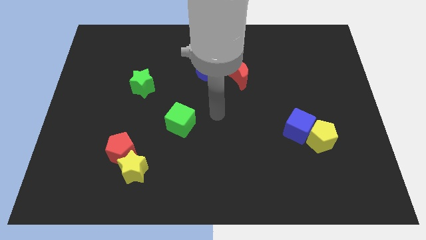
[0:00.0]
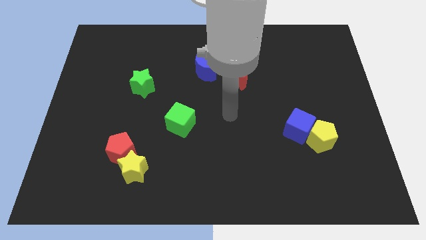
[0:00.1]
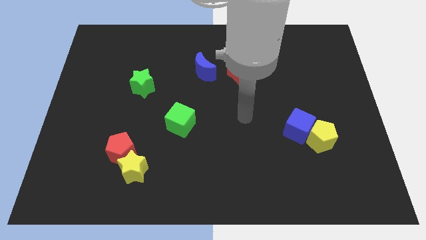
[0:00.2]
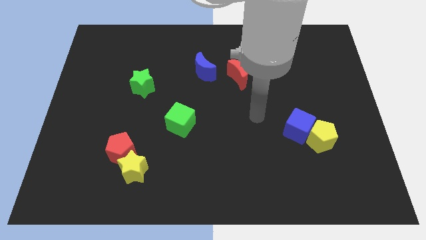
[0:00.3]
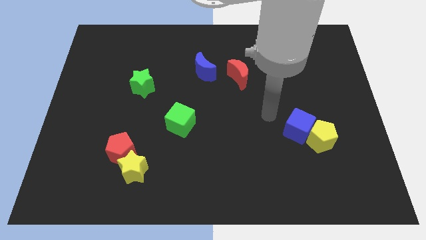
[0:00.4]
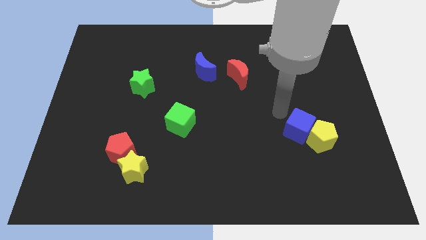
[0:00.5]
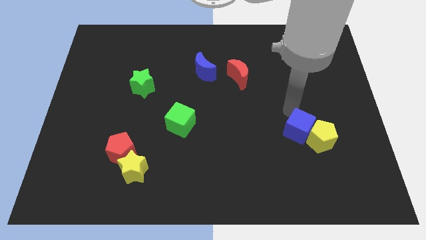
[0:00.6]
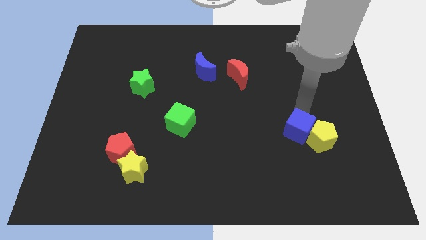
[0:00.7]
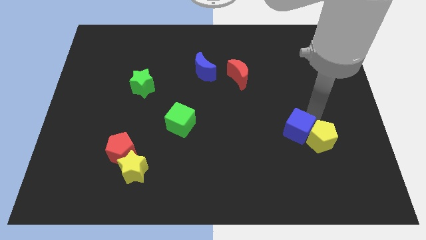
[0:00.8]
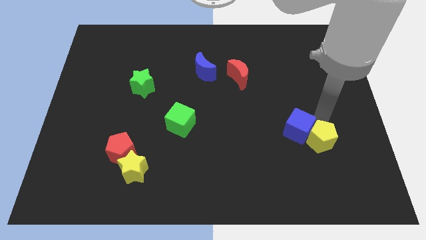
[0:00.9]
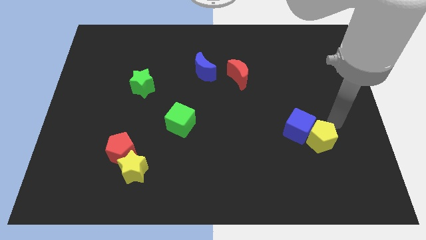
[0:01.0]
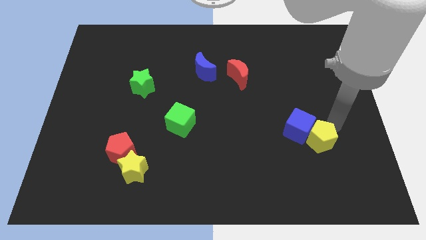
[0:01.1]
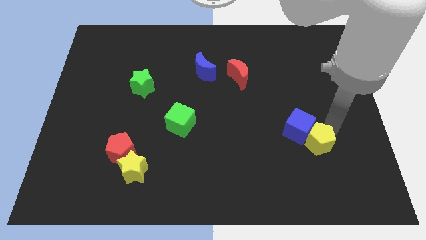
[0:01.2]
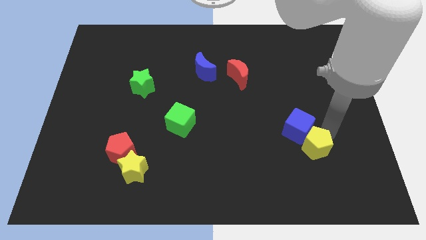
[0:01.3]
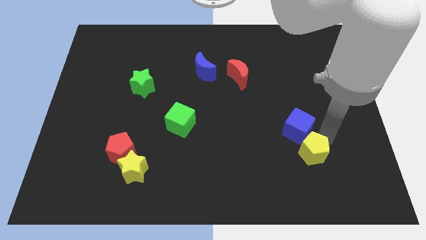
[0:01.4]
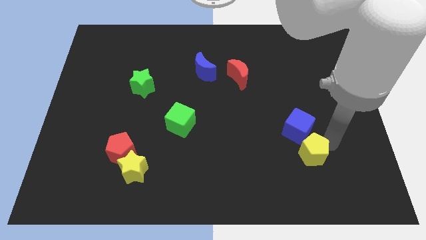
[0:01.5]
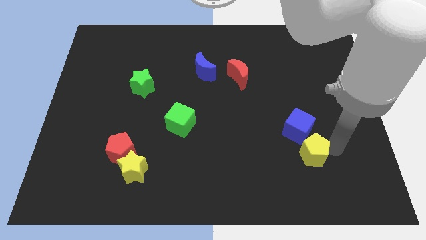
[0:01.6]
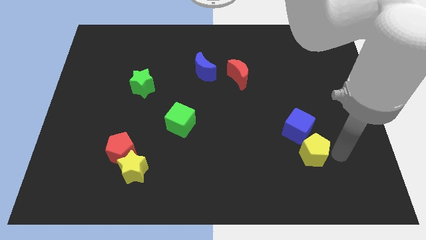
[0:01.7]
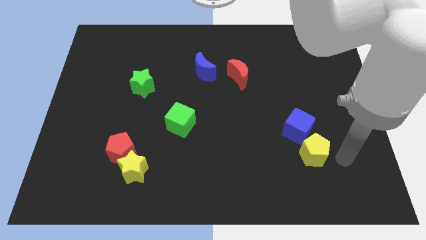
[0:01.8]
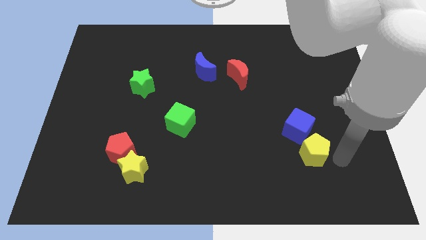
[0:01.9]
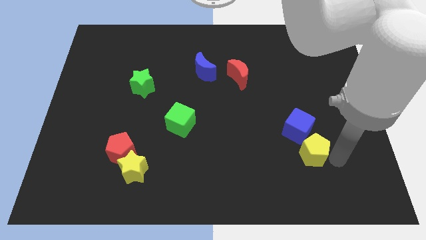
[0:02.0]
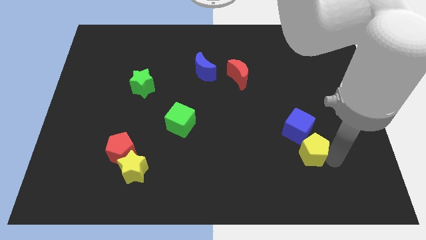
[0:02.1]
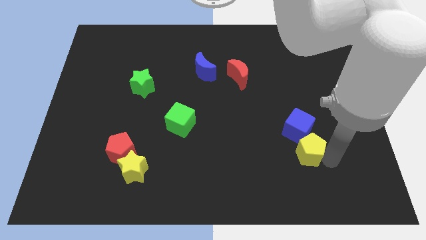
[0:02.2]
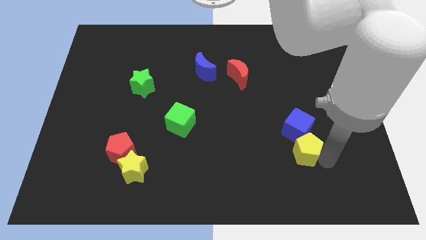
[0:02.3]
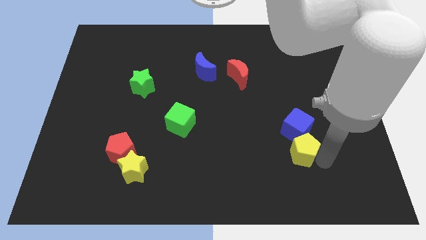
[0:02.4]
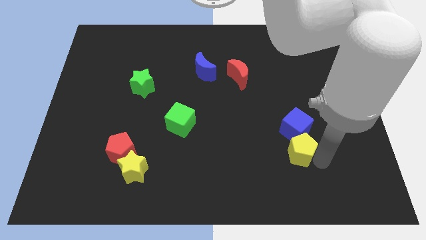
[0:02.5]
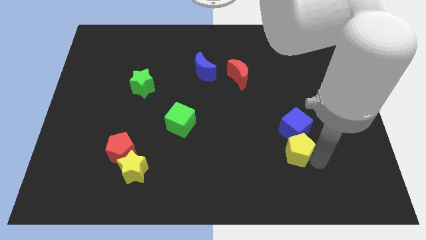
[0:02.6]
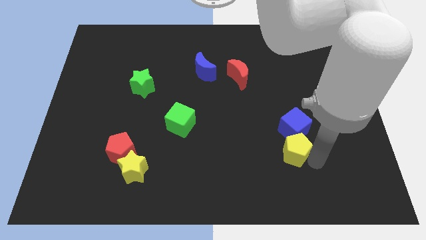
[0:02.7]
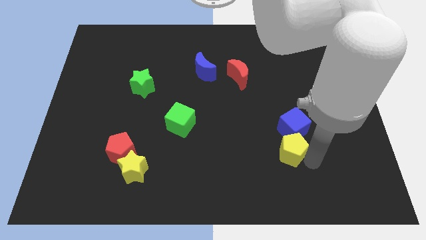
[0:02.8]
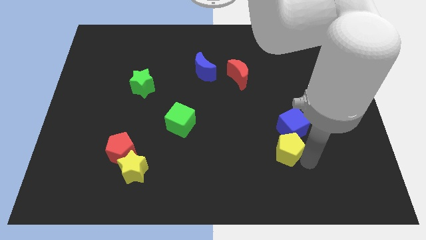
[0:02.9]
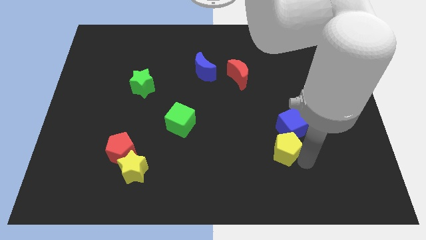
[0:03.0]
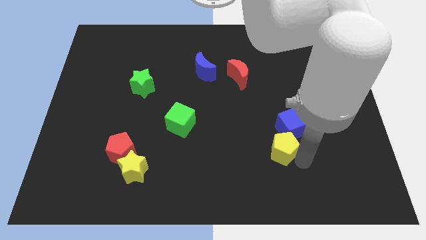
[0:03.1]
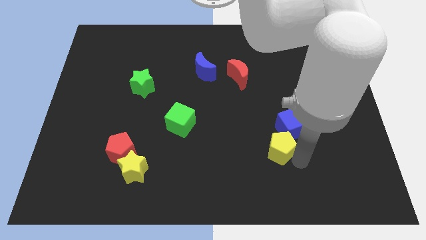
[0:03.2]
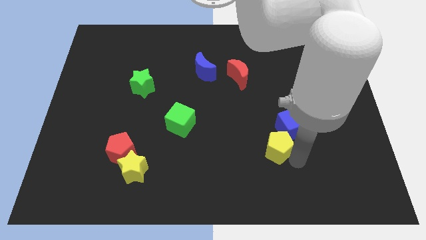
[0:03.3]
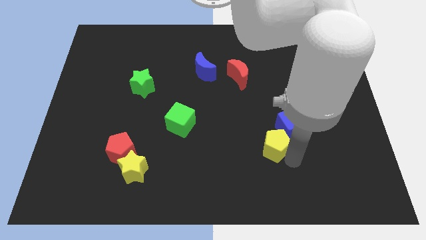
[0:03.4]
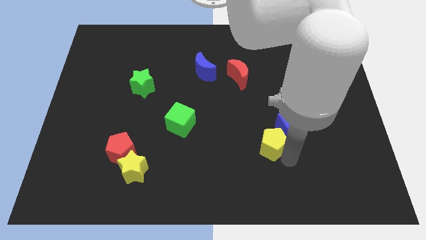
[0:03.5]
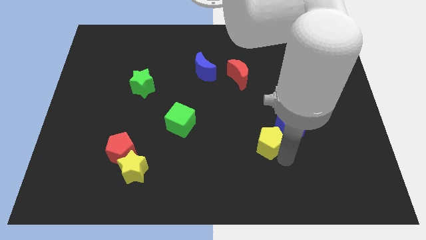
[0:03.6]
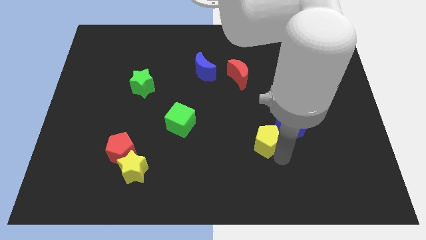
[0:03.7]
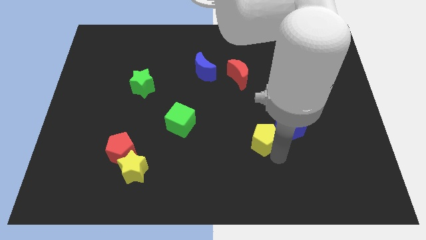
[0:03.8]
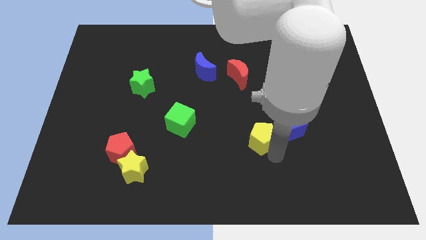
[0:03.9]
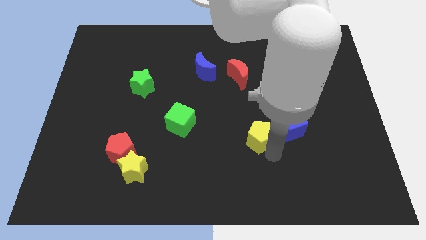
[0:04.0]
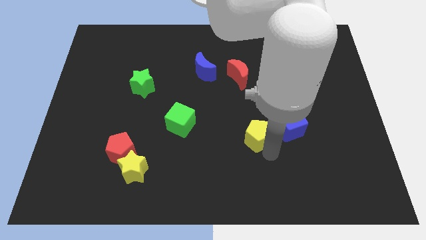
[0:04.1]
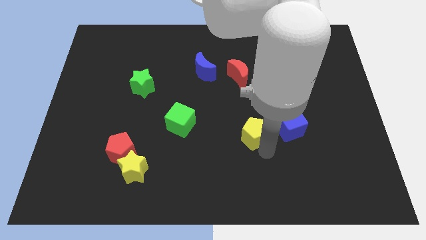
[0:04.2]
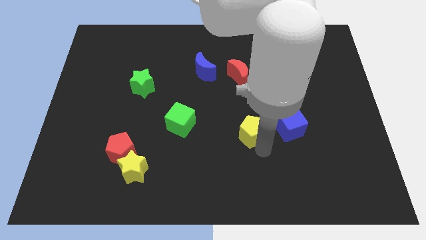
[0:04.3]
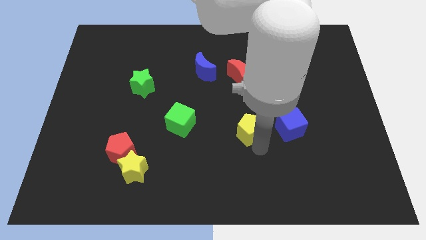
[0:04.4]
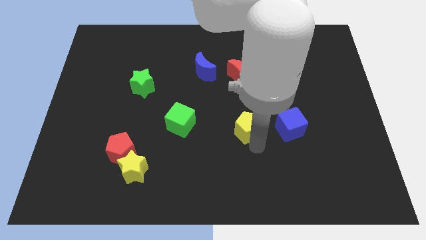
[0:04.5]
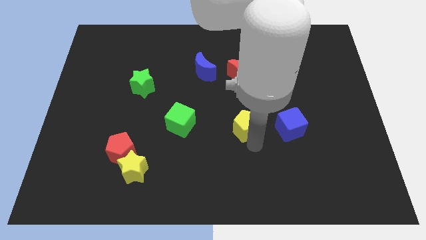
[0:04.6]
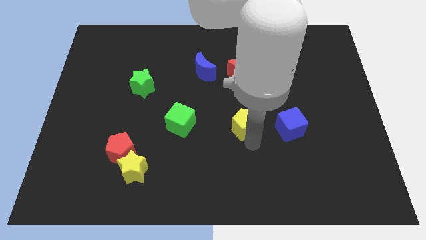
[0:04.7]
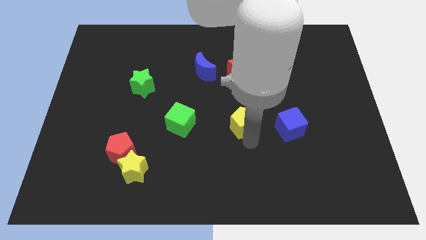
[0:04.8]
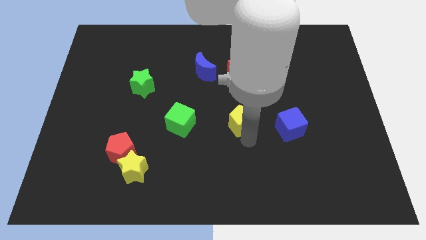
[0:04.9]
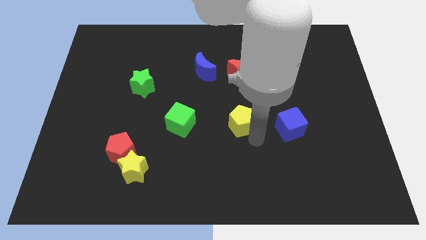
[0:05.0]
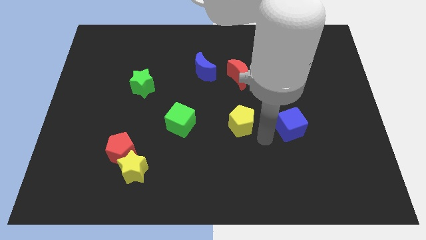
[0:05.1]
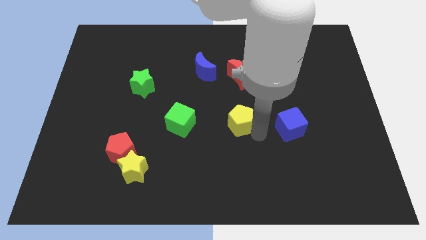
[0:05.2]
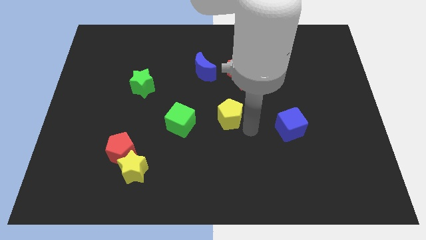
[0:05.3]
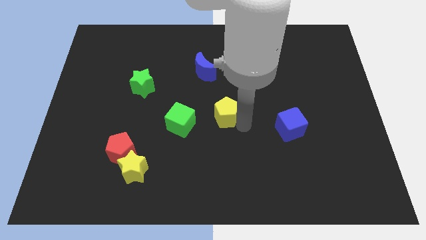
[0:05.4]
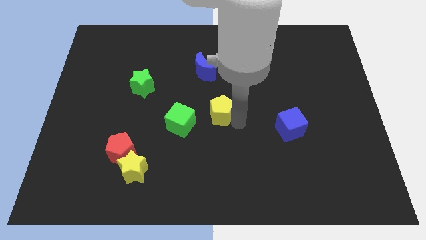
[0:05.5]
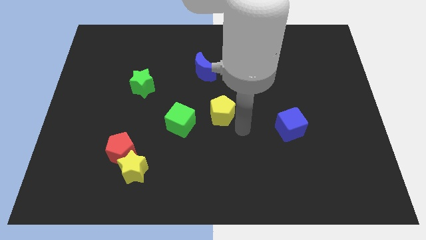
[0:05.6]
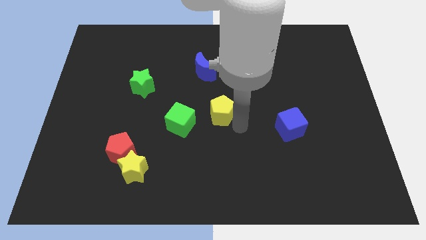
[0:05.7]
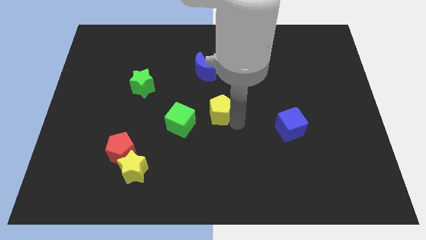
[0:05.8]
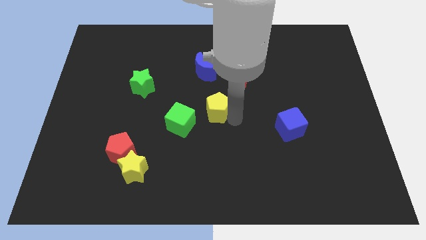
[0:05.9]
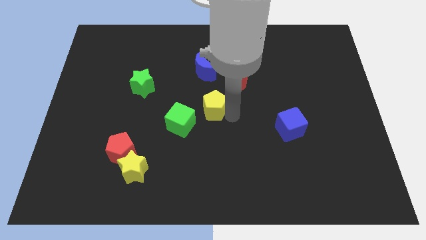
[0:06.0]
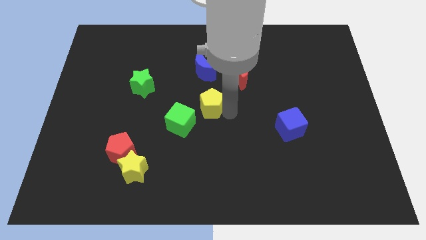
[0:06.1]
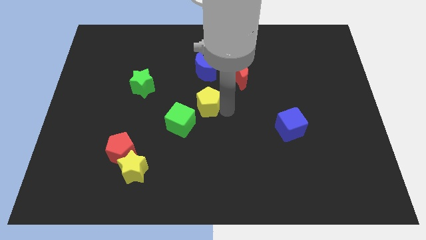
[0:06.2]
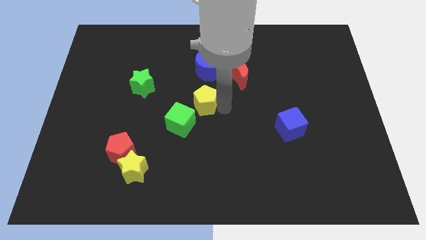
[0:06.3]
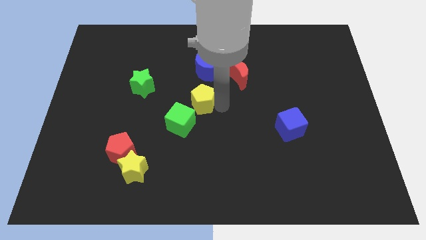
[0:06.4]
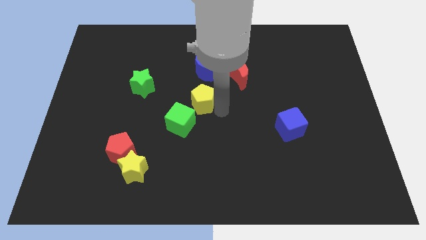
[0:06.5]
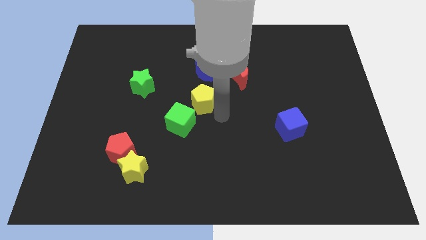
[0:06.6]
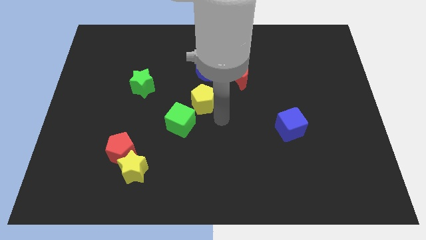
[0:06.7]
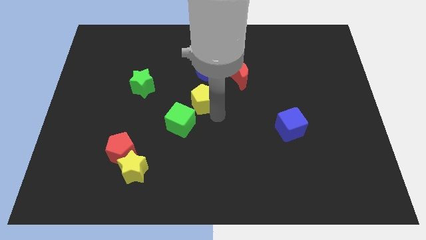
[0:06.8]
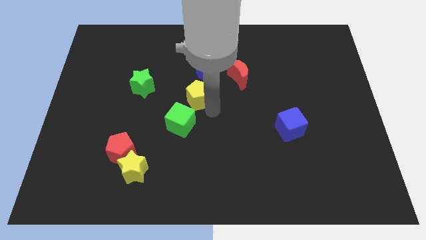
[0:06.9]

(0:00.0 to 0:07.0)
move the yellow pentagon to the right side of the green star
